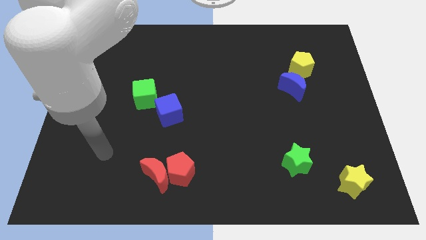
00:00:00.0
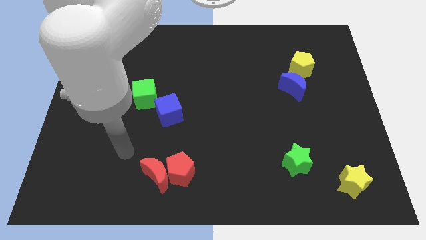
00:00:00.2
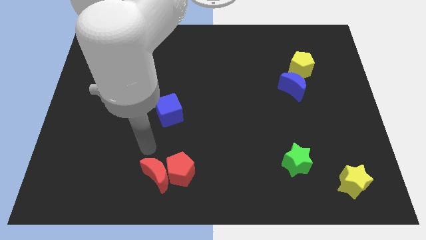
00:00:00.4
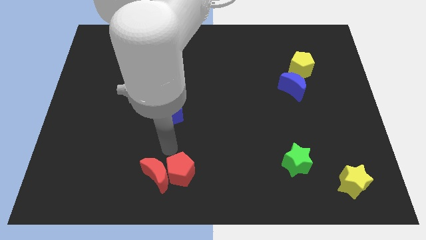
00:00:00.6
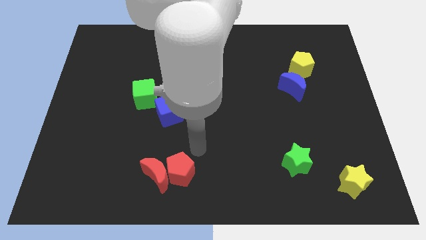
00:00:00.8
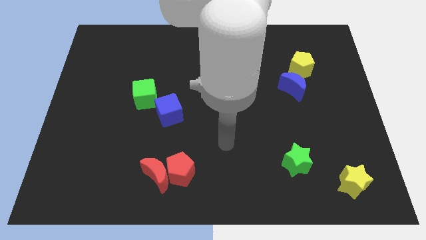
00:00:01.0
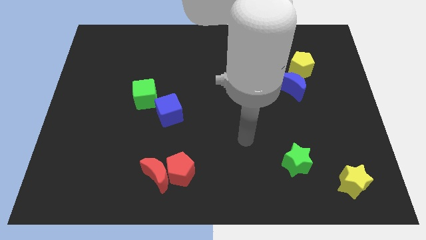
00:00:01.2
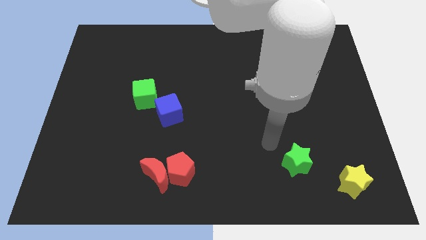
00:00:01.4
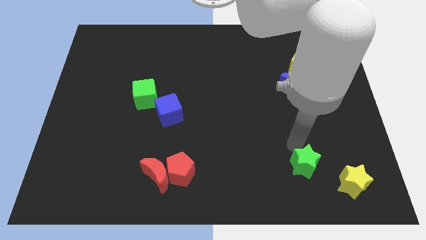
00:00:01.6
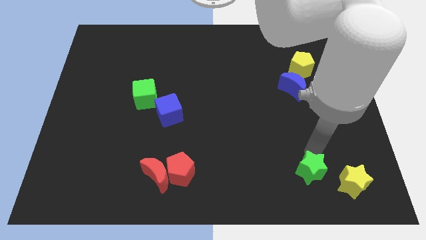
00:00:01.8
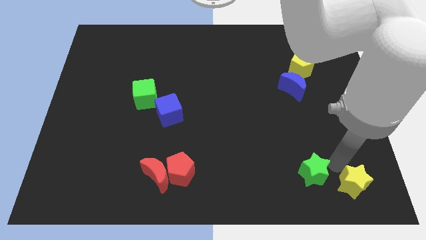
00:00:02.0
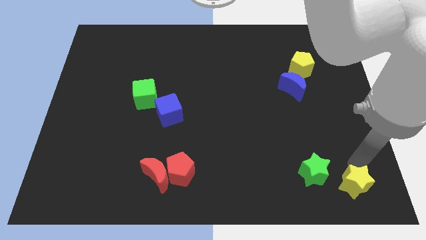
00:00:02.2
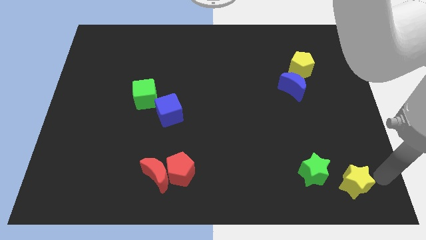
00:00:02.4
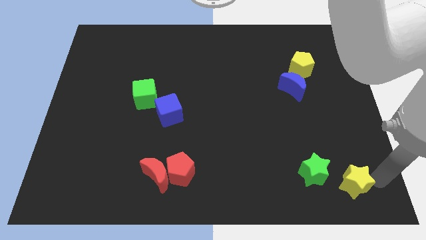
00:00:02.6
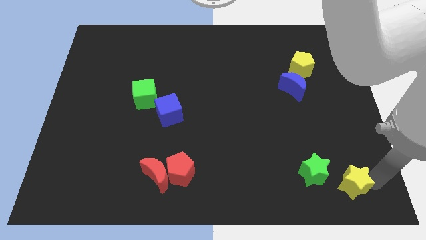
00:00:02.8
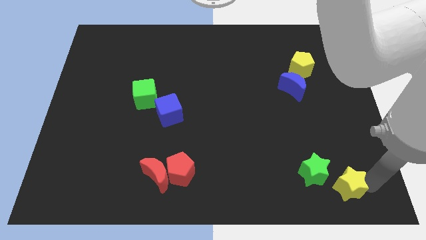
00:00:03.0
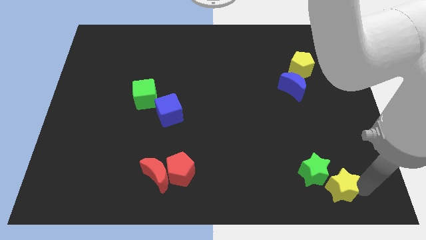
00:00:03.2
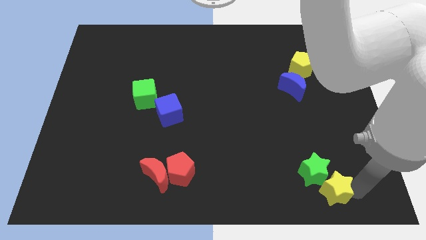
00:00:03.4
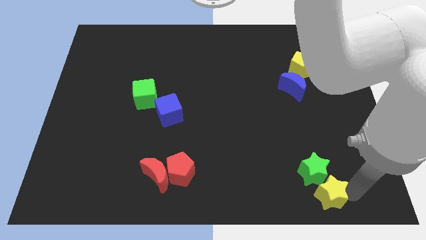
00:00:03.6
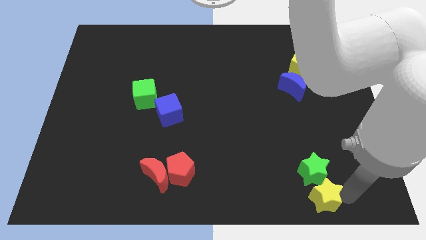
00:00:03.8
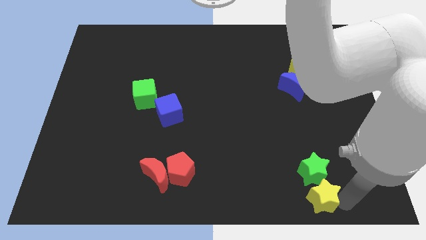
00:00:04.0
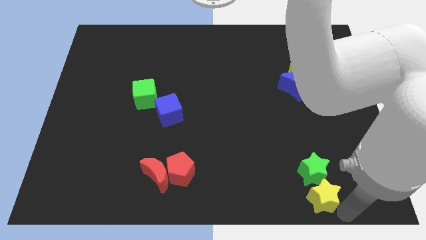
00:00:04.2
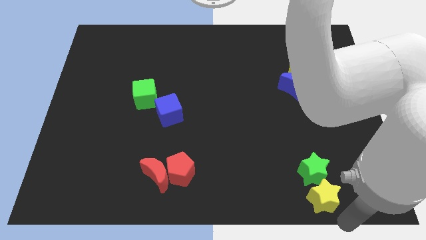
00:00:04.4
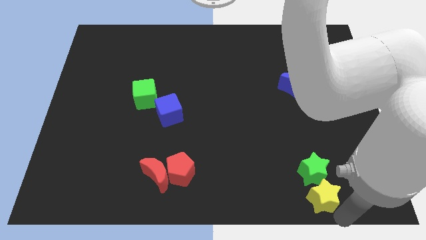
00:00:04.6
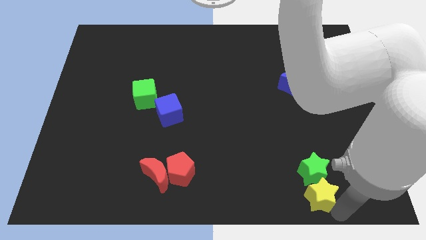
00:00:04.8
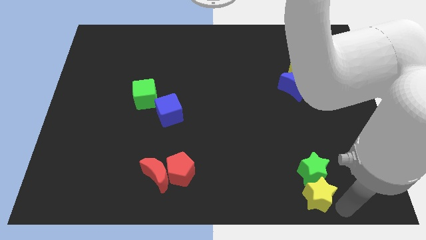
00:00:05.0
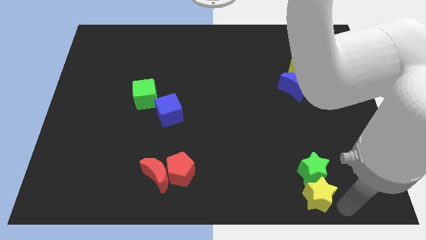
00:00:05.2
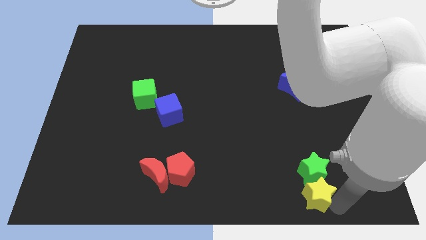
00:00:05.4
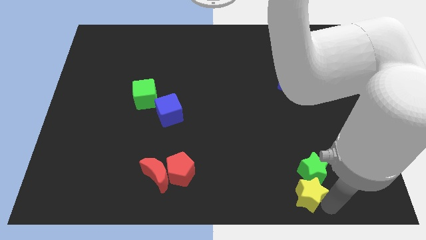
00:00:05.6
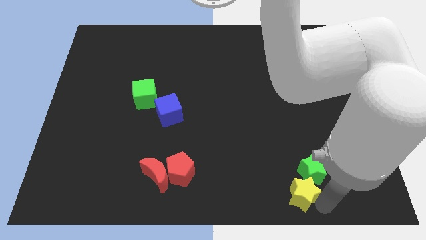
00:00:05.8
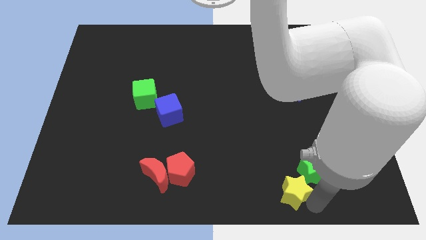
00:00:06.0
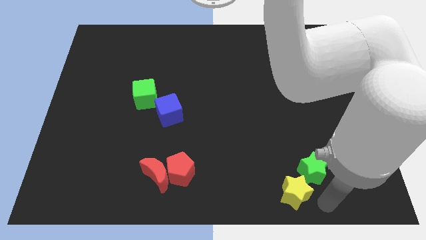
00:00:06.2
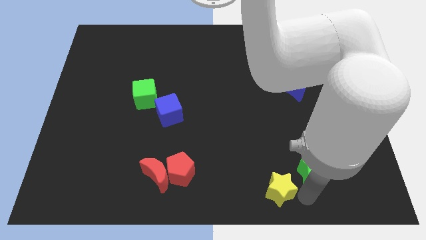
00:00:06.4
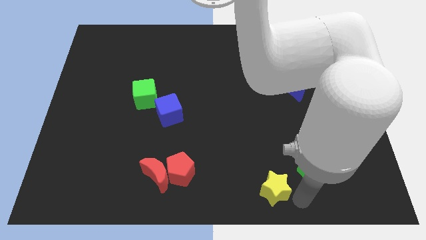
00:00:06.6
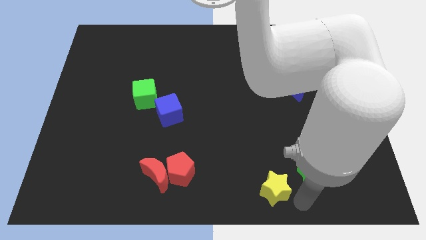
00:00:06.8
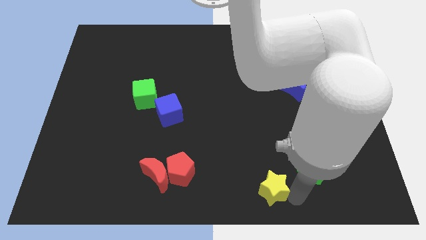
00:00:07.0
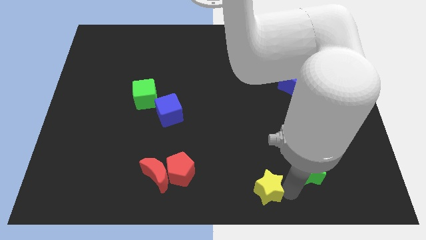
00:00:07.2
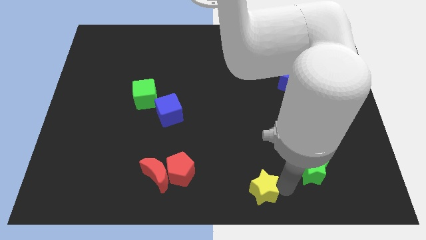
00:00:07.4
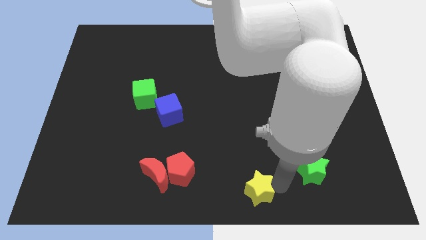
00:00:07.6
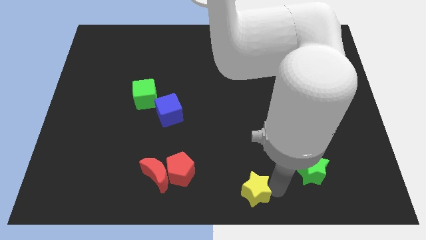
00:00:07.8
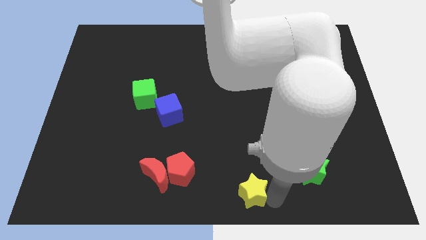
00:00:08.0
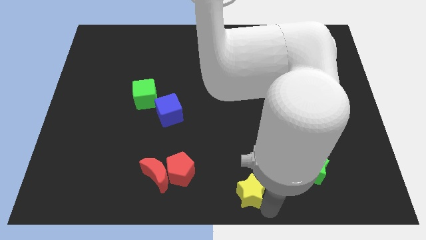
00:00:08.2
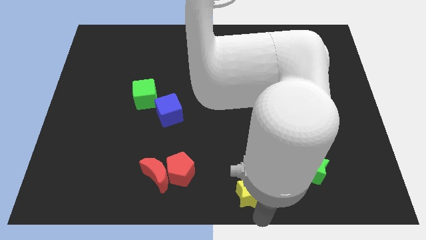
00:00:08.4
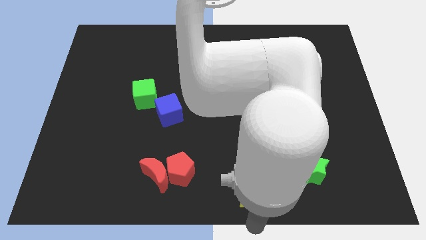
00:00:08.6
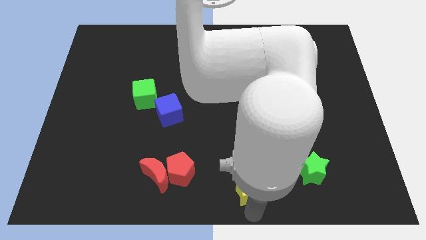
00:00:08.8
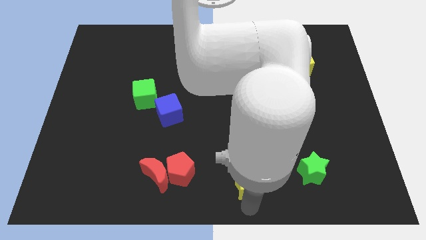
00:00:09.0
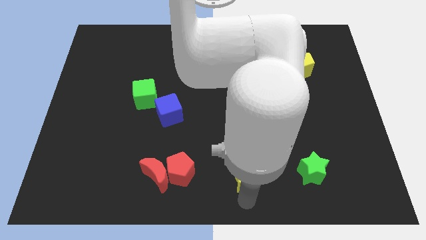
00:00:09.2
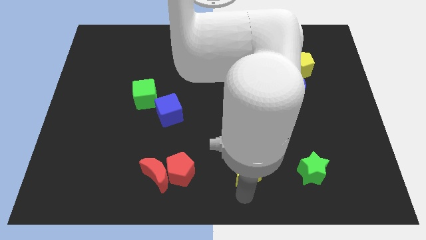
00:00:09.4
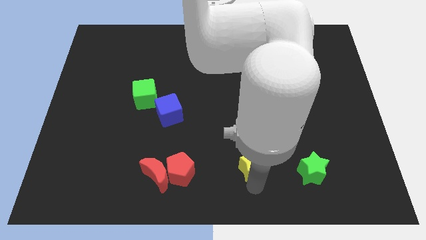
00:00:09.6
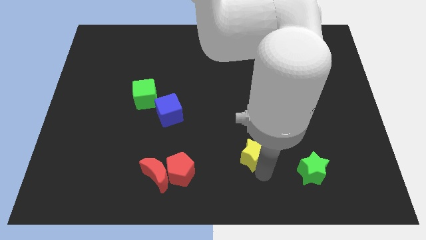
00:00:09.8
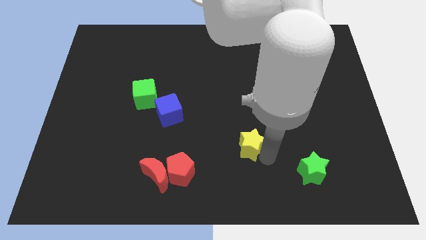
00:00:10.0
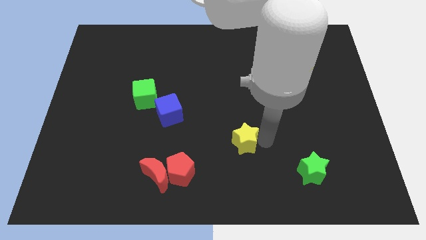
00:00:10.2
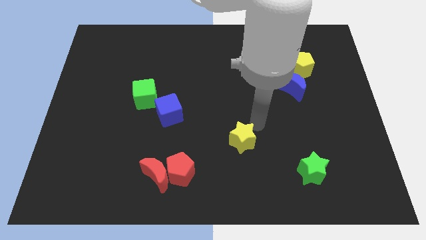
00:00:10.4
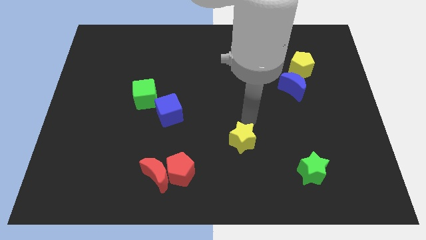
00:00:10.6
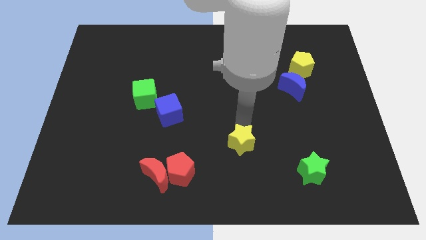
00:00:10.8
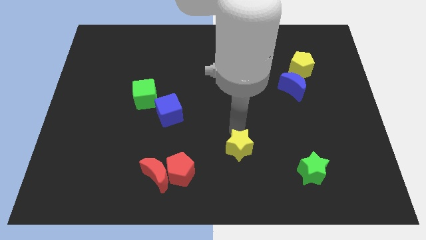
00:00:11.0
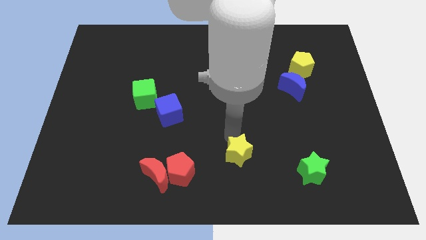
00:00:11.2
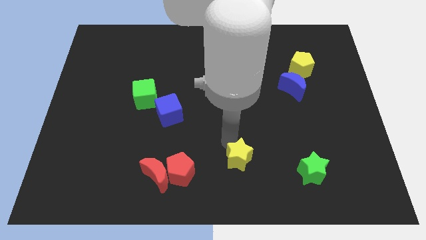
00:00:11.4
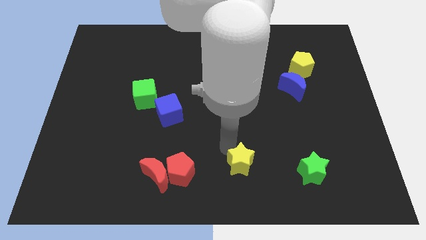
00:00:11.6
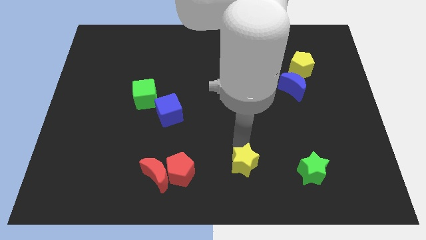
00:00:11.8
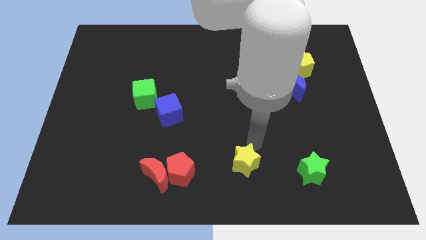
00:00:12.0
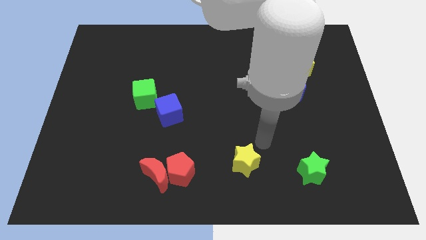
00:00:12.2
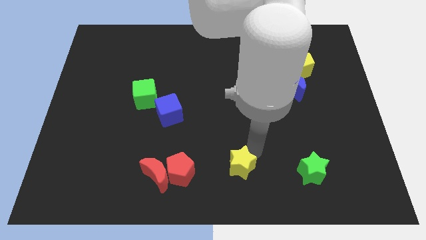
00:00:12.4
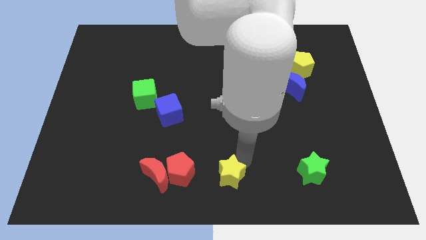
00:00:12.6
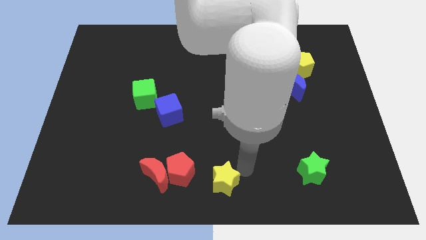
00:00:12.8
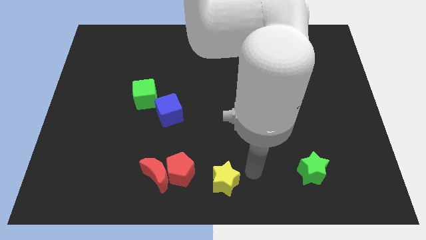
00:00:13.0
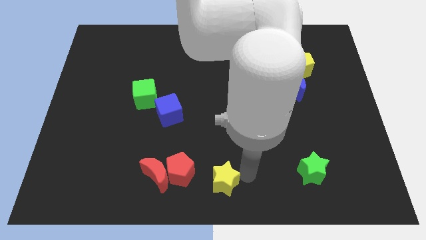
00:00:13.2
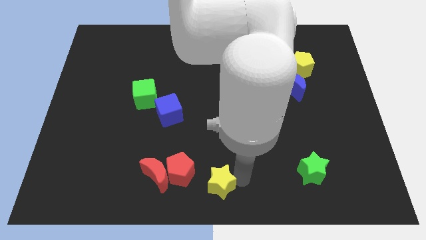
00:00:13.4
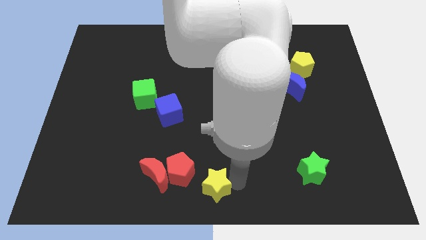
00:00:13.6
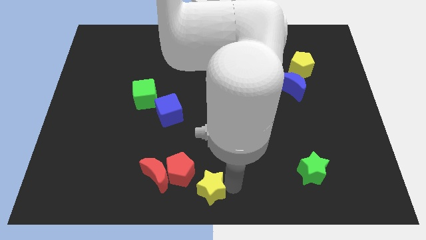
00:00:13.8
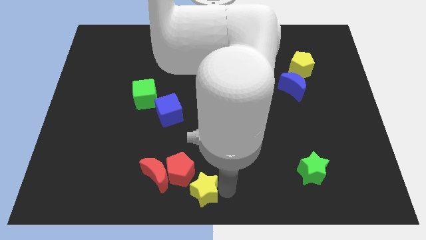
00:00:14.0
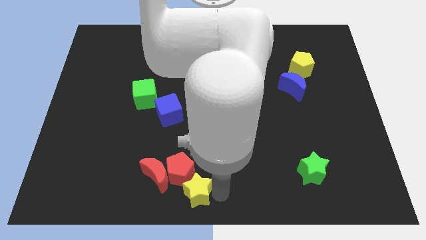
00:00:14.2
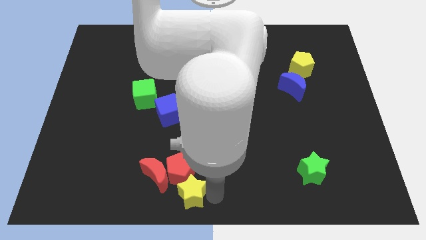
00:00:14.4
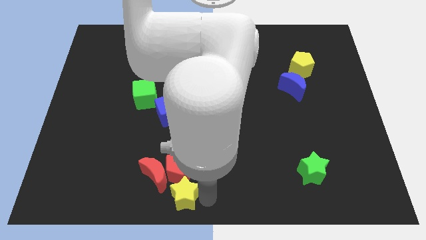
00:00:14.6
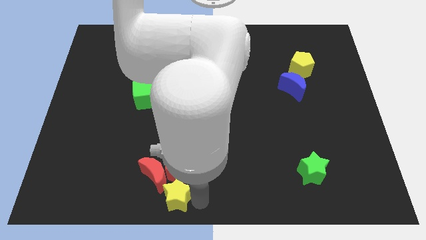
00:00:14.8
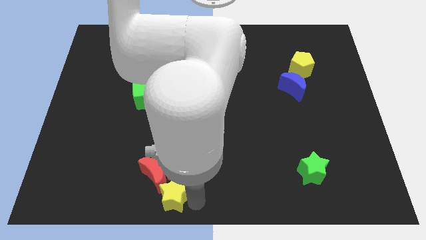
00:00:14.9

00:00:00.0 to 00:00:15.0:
push the yellow star close to the red moon
